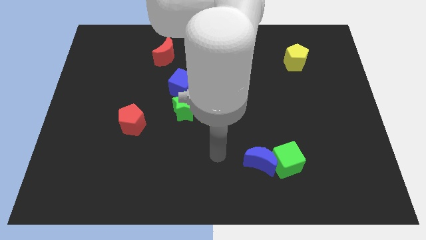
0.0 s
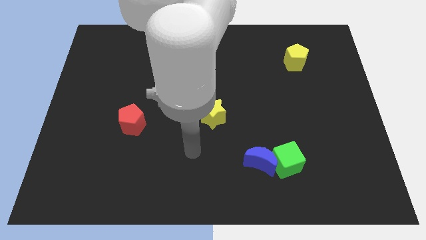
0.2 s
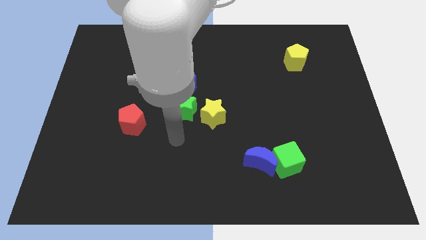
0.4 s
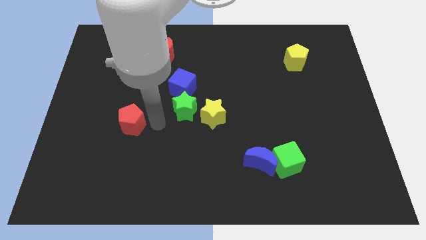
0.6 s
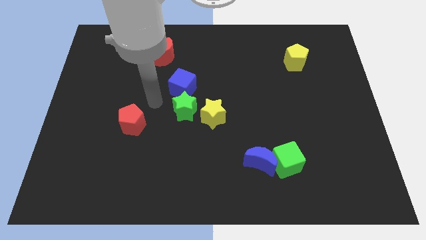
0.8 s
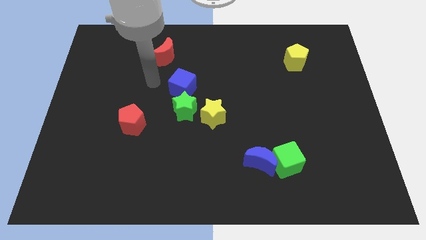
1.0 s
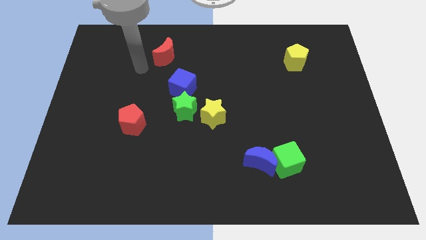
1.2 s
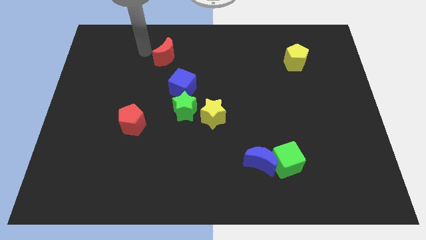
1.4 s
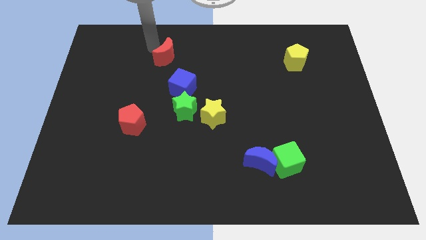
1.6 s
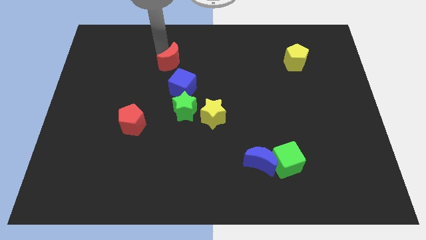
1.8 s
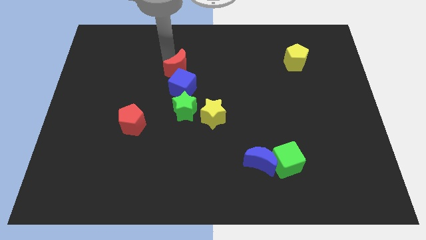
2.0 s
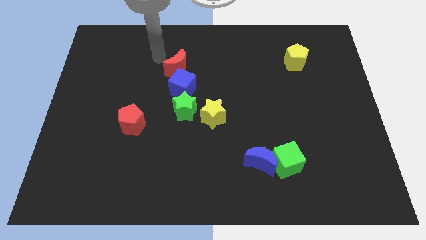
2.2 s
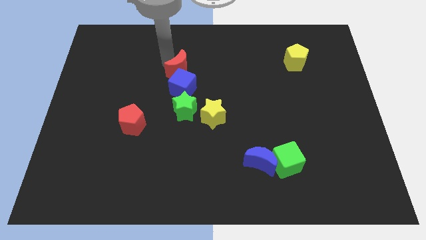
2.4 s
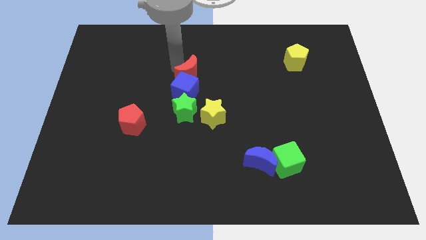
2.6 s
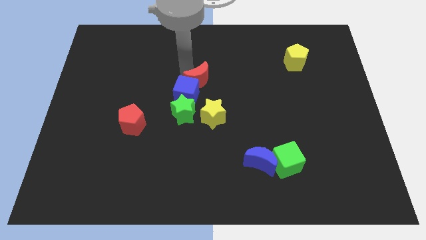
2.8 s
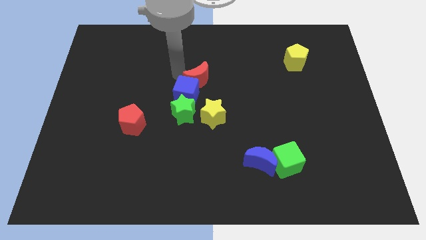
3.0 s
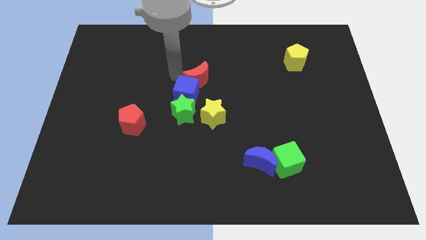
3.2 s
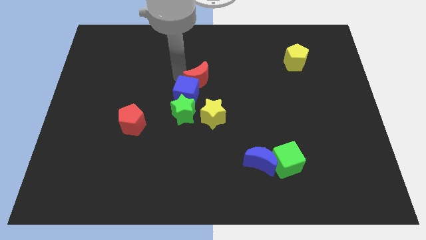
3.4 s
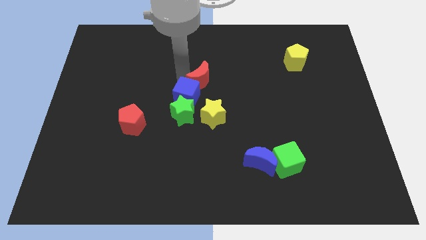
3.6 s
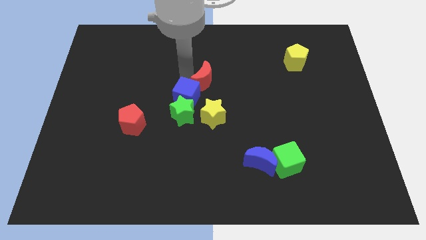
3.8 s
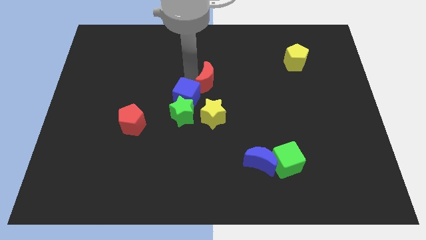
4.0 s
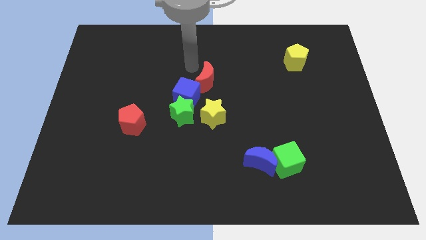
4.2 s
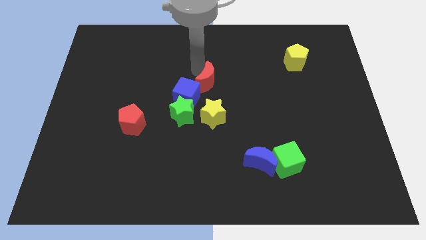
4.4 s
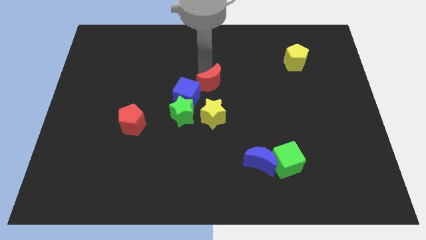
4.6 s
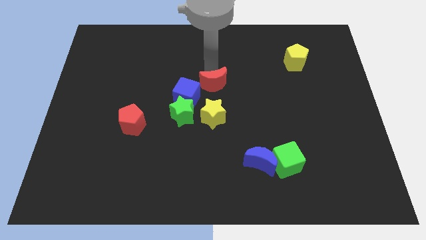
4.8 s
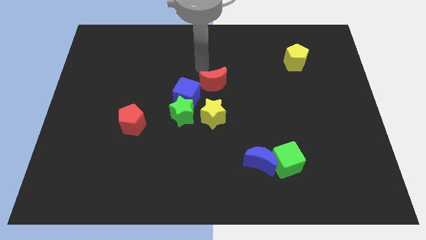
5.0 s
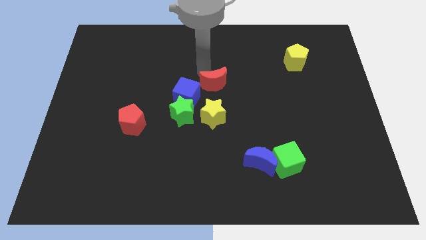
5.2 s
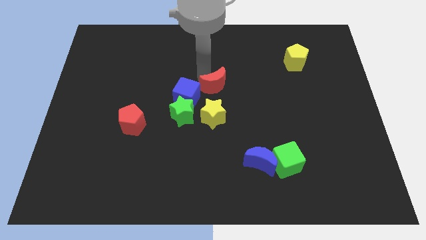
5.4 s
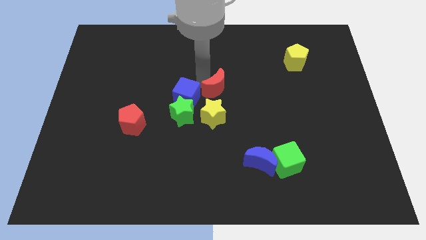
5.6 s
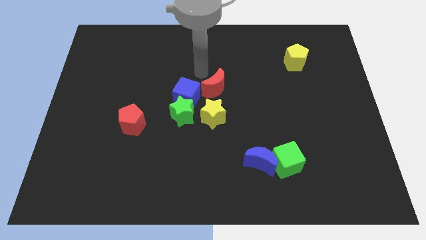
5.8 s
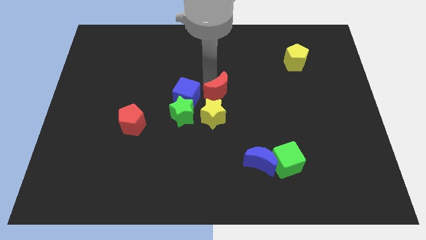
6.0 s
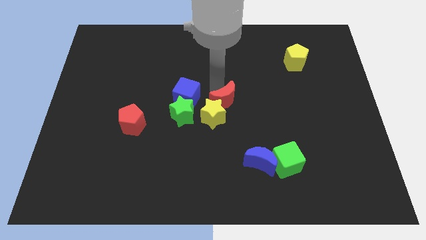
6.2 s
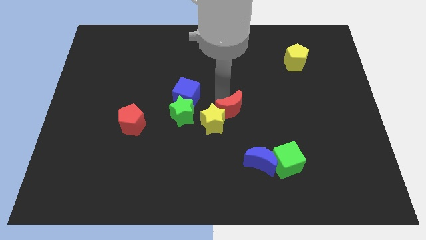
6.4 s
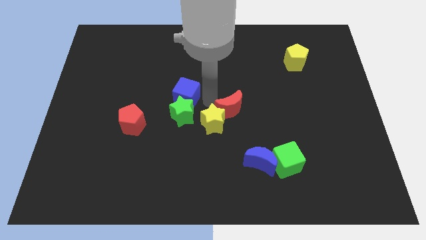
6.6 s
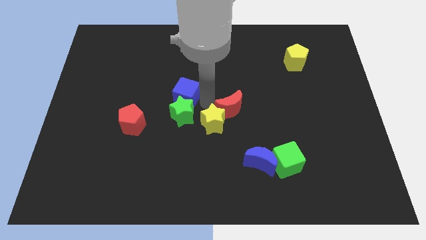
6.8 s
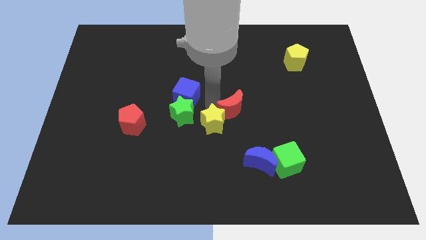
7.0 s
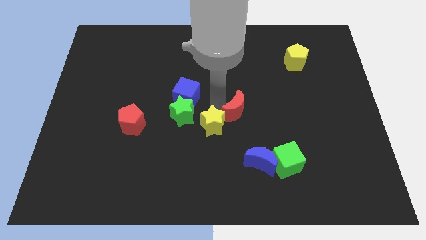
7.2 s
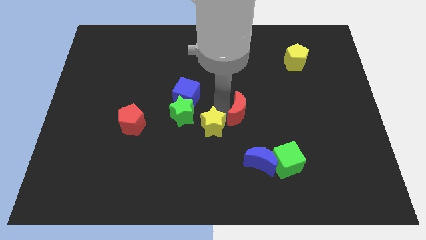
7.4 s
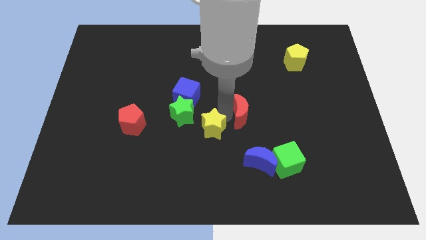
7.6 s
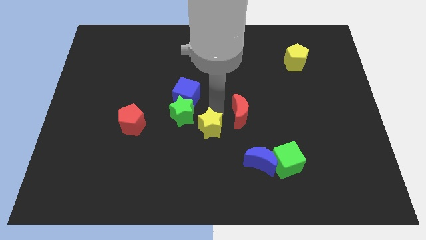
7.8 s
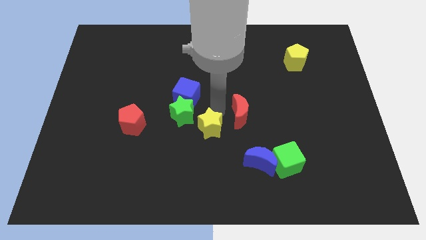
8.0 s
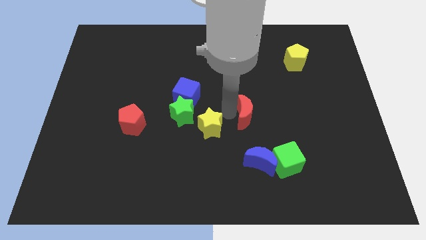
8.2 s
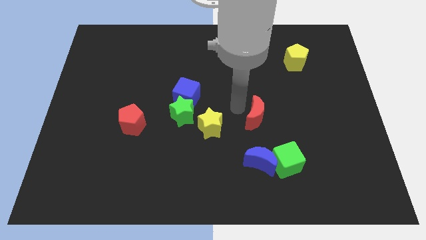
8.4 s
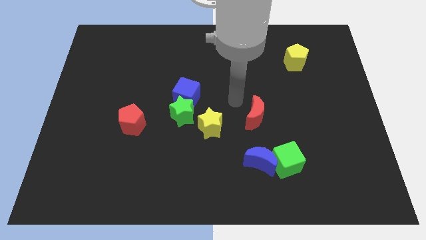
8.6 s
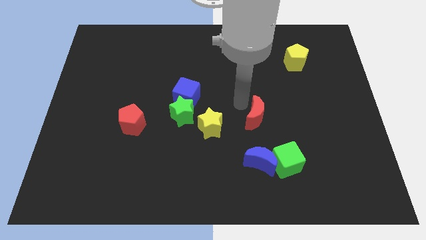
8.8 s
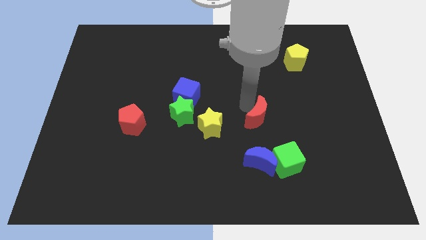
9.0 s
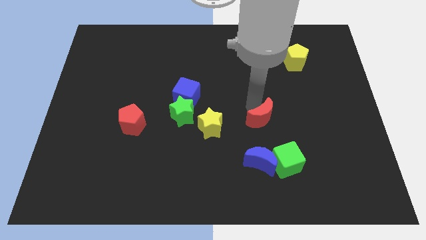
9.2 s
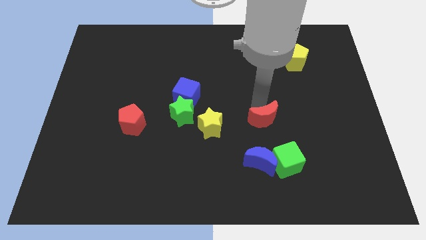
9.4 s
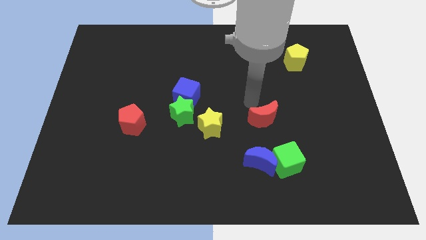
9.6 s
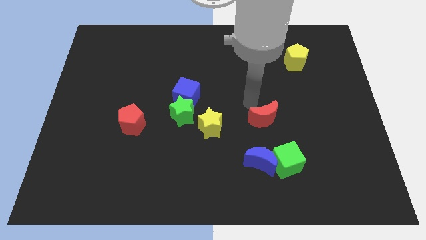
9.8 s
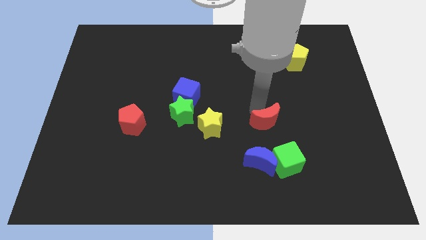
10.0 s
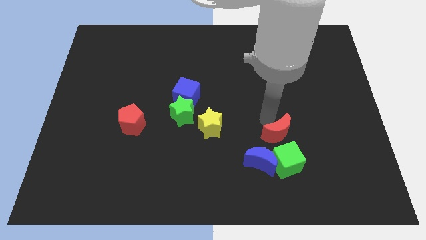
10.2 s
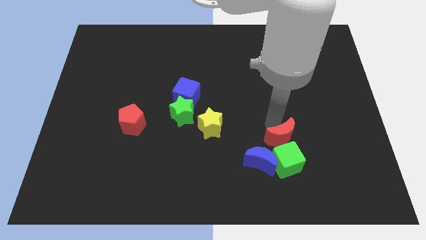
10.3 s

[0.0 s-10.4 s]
slide the red moon towards the green cube

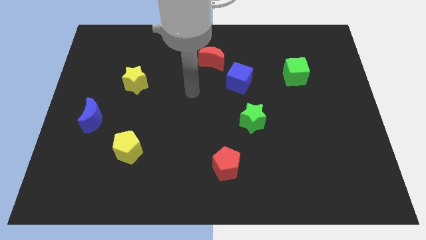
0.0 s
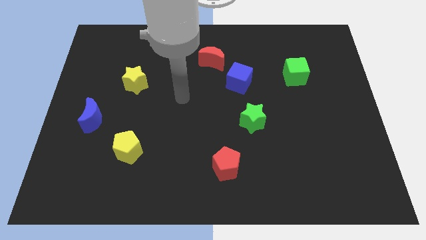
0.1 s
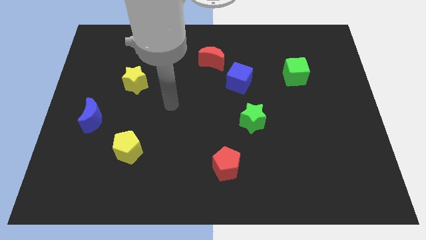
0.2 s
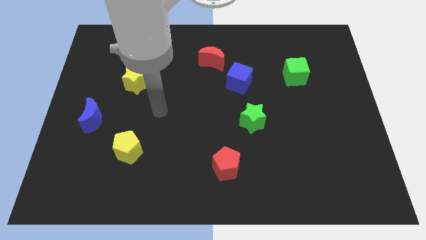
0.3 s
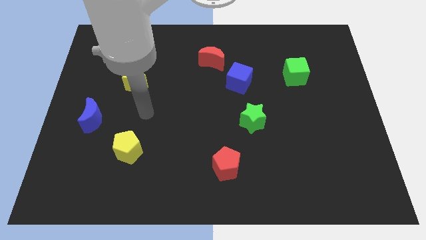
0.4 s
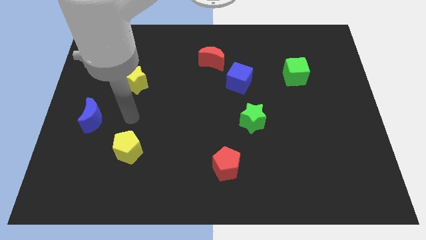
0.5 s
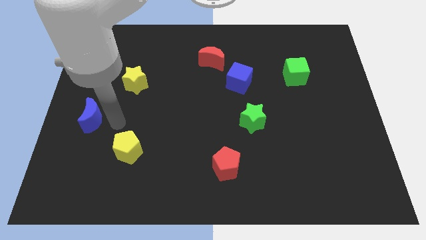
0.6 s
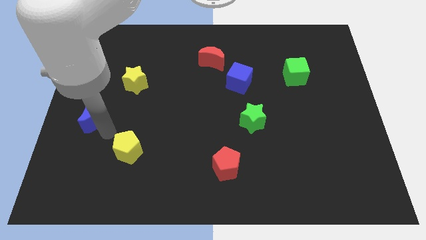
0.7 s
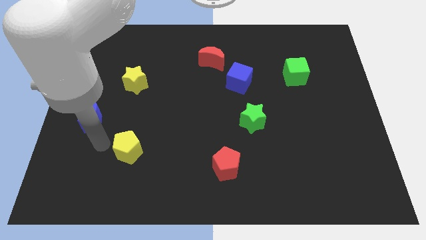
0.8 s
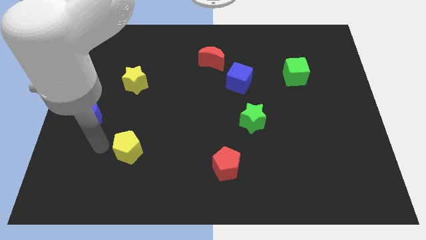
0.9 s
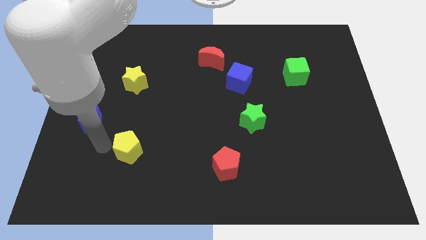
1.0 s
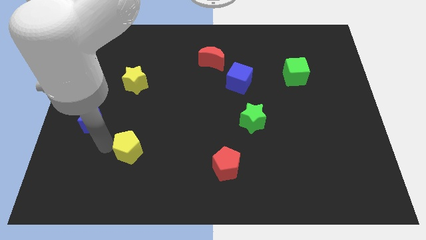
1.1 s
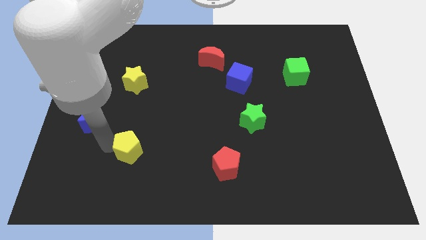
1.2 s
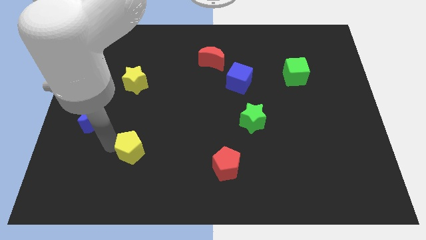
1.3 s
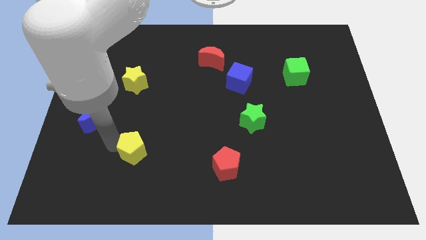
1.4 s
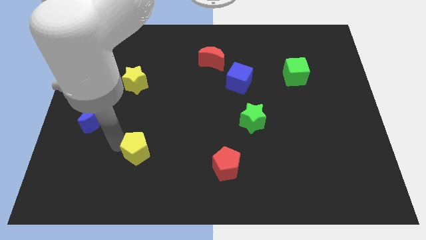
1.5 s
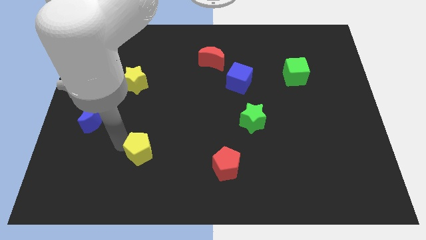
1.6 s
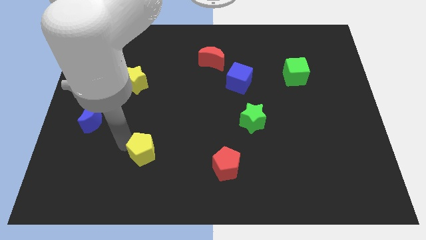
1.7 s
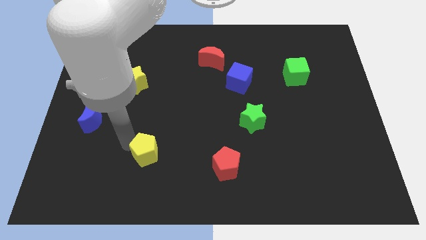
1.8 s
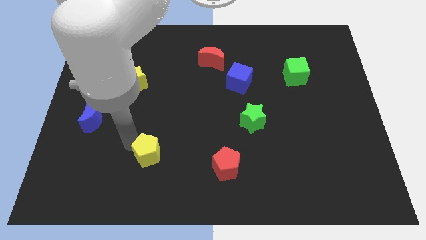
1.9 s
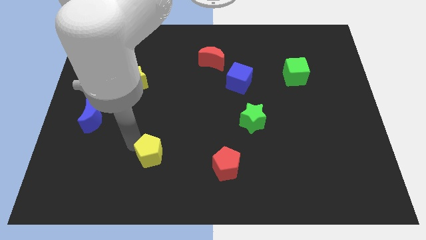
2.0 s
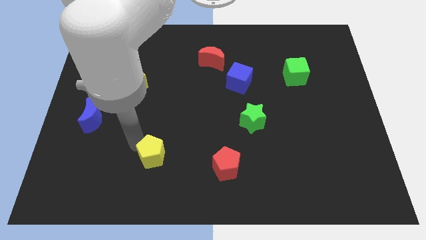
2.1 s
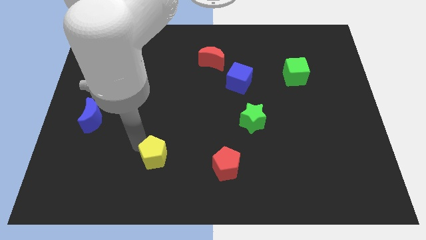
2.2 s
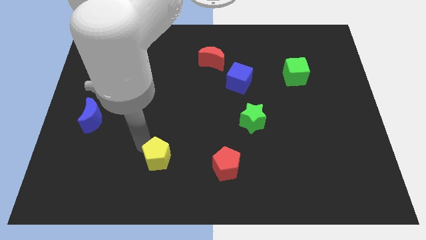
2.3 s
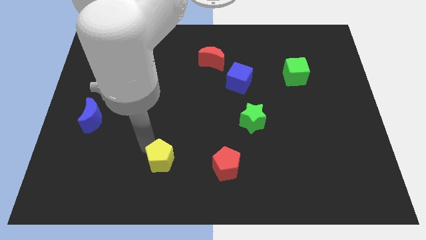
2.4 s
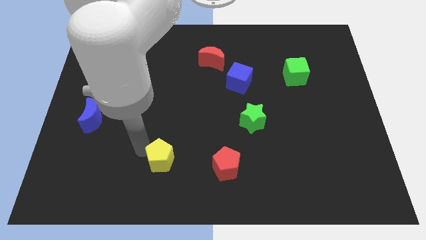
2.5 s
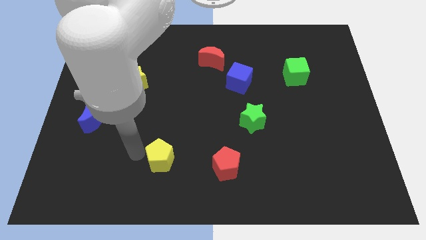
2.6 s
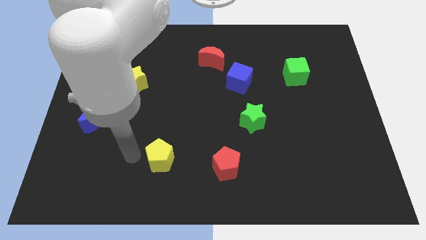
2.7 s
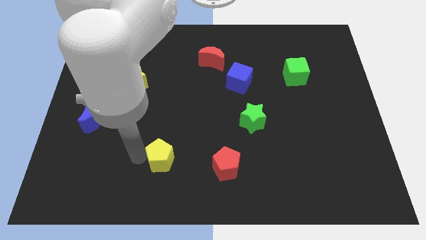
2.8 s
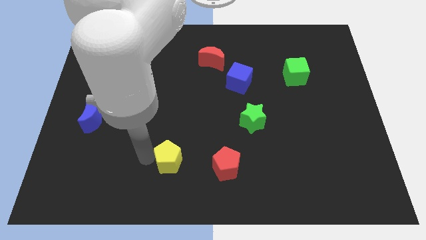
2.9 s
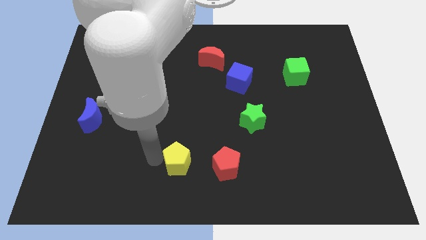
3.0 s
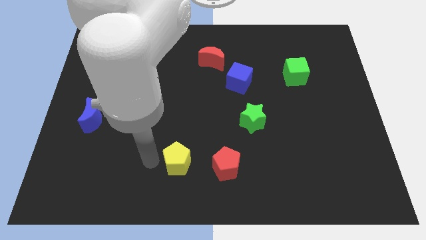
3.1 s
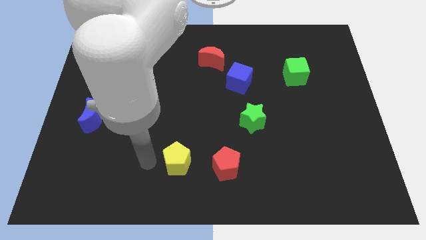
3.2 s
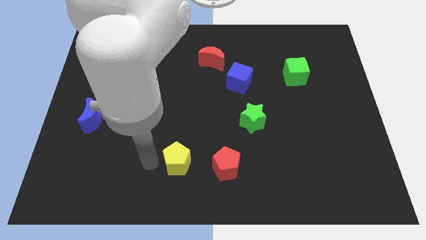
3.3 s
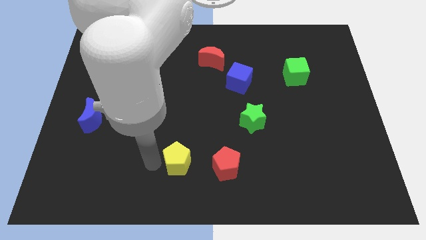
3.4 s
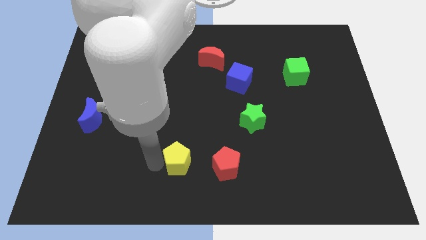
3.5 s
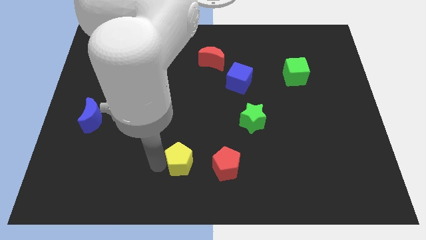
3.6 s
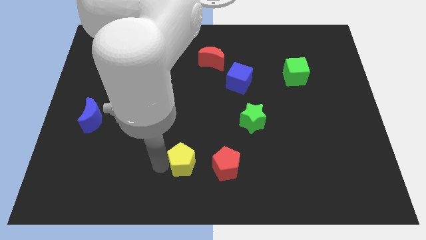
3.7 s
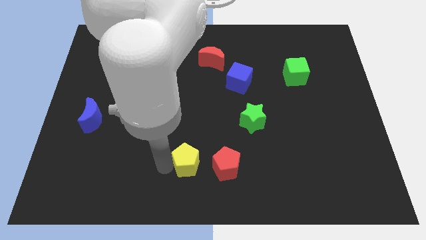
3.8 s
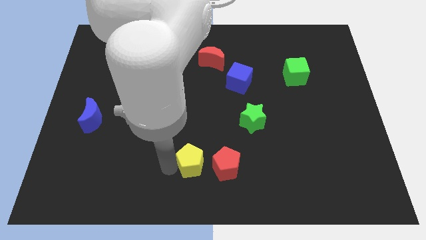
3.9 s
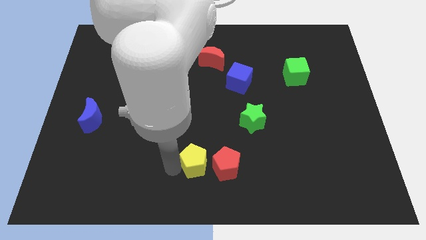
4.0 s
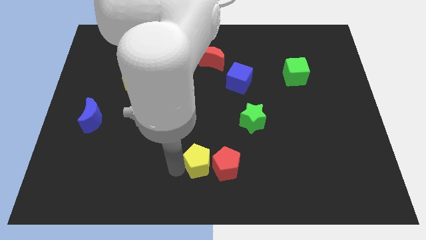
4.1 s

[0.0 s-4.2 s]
push the yellow pentagon towards the red pentagon
